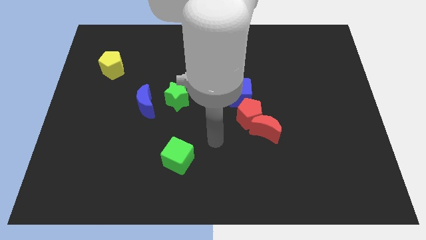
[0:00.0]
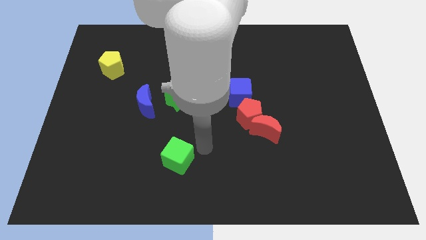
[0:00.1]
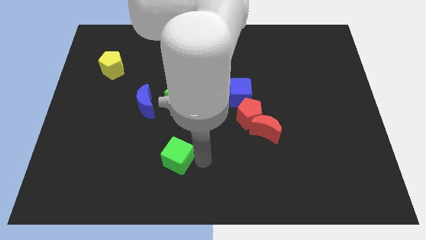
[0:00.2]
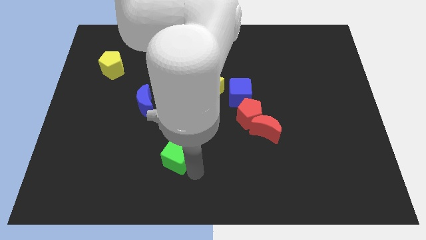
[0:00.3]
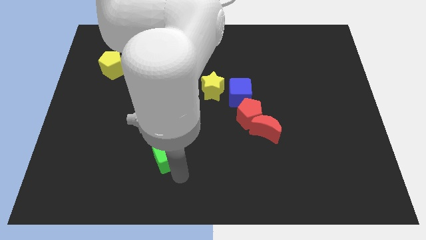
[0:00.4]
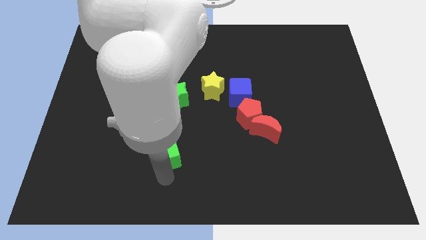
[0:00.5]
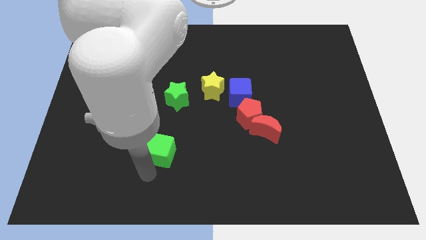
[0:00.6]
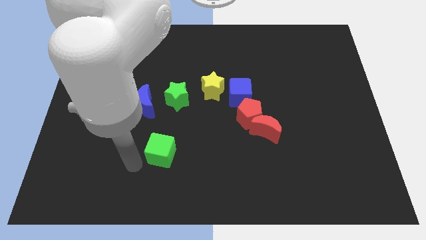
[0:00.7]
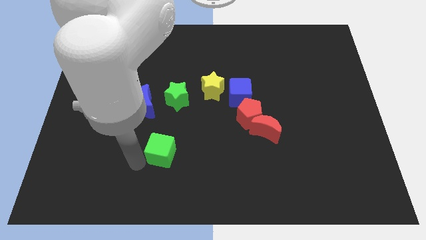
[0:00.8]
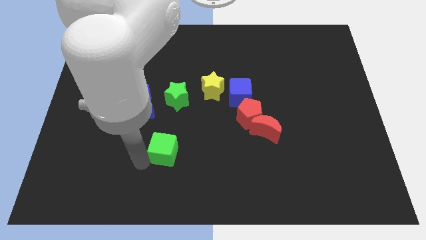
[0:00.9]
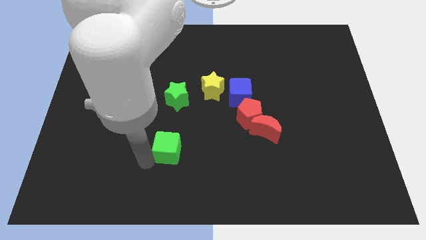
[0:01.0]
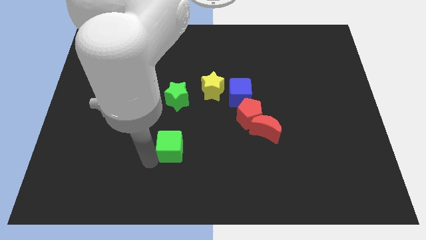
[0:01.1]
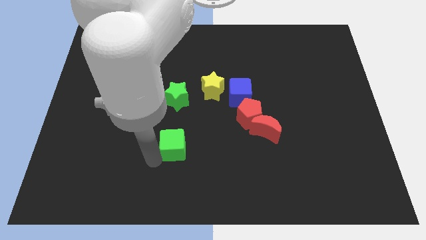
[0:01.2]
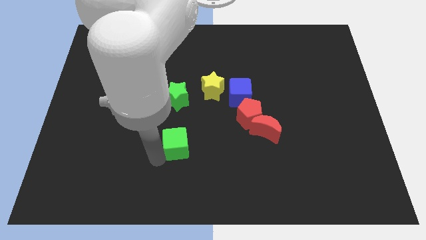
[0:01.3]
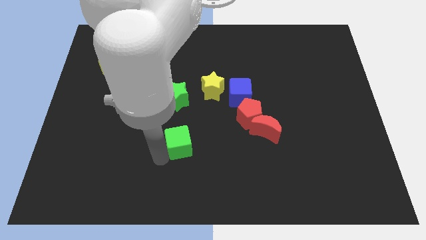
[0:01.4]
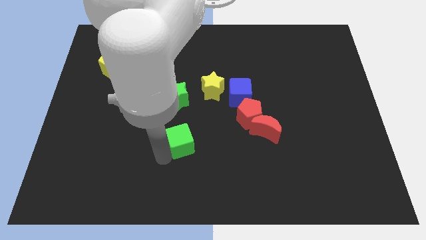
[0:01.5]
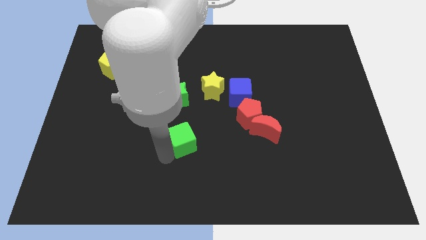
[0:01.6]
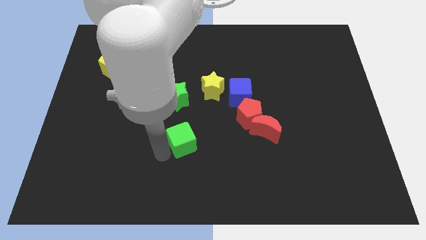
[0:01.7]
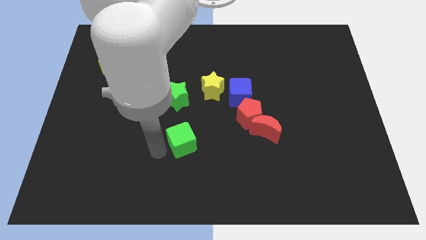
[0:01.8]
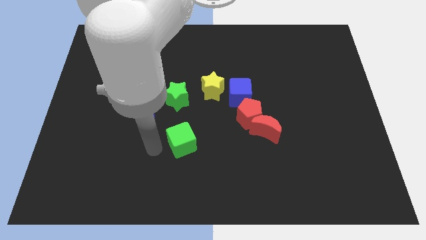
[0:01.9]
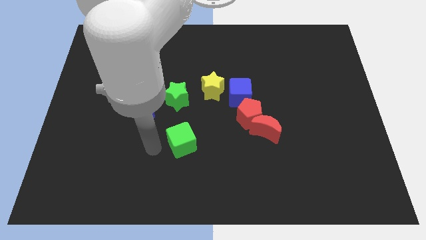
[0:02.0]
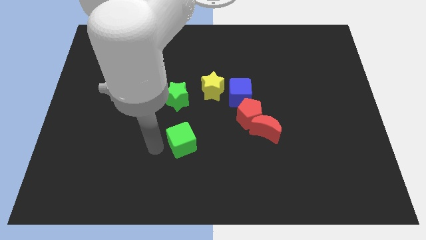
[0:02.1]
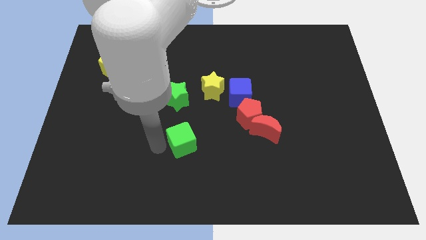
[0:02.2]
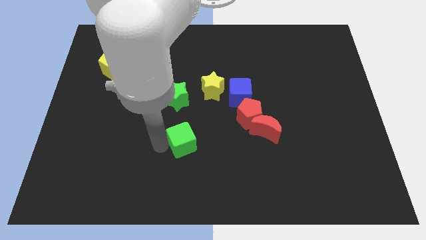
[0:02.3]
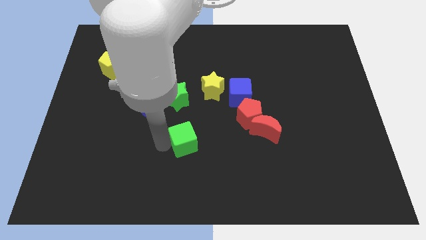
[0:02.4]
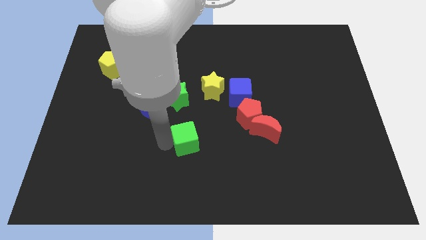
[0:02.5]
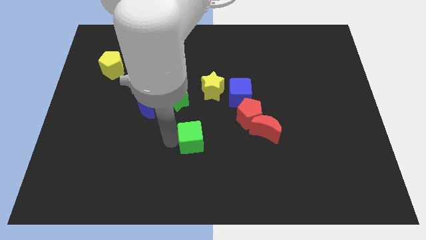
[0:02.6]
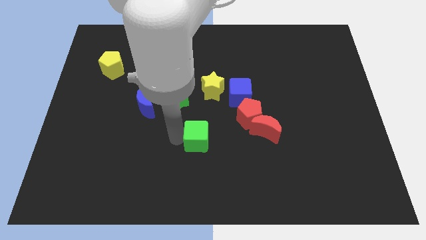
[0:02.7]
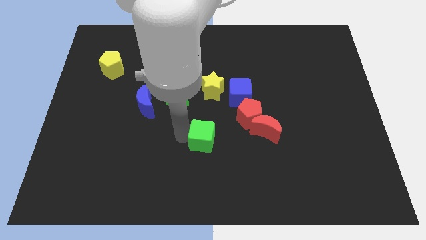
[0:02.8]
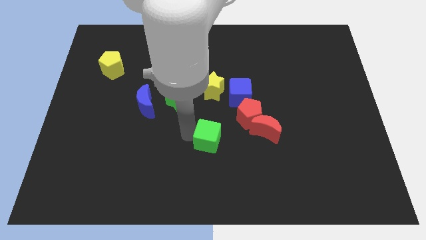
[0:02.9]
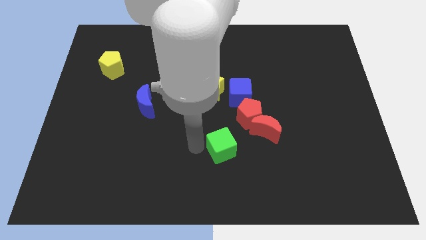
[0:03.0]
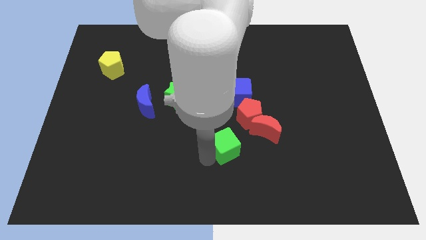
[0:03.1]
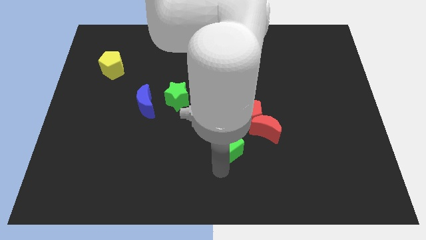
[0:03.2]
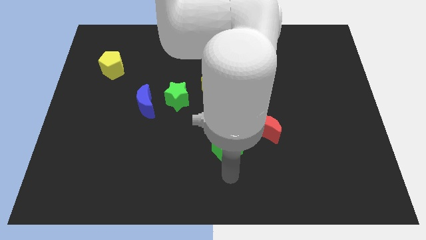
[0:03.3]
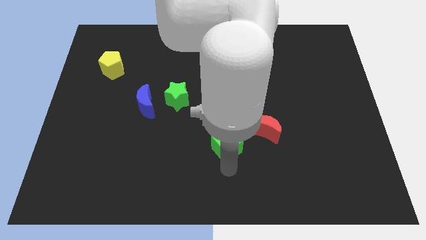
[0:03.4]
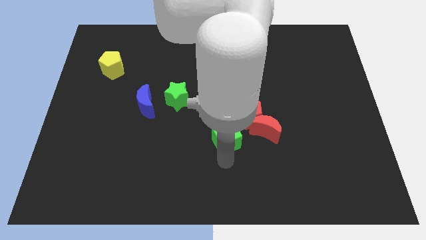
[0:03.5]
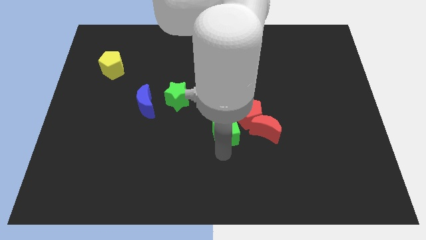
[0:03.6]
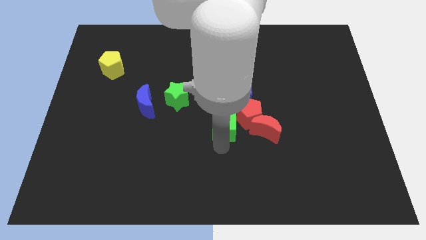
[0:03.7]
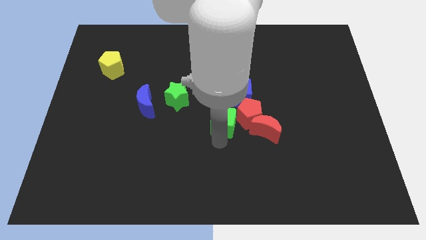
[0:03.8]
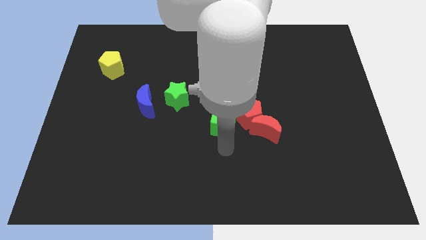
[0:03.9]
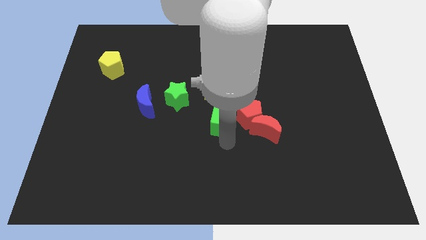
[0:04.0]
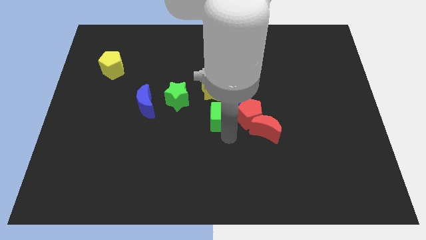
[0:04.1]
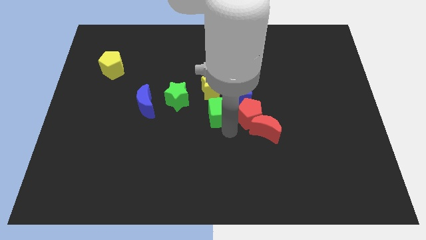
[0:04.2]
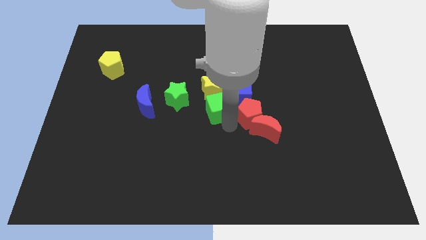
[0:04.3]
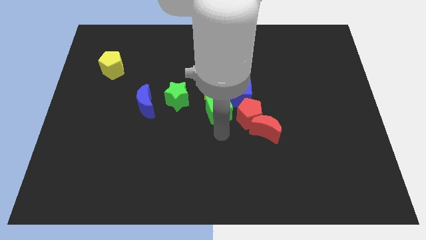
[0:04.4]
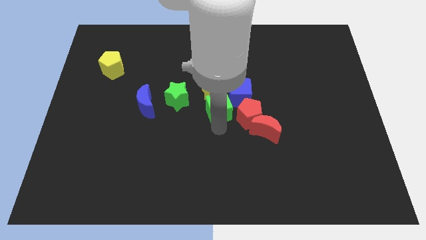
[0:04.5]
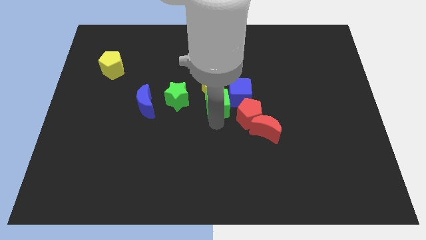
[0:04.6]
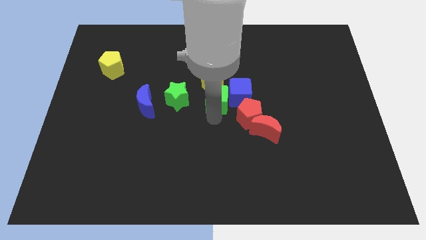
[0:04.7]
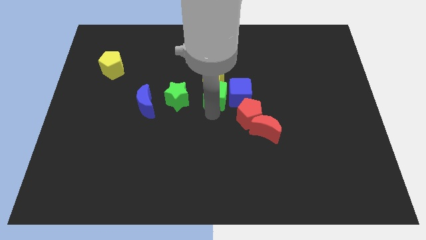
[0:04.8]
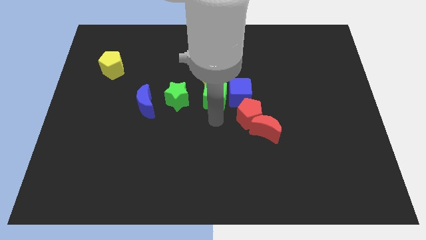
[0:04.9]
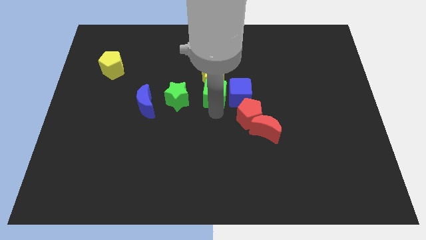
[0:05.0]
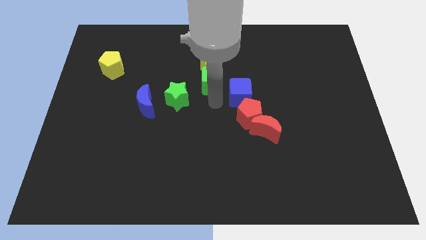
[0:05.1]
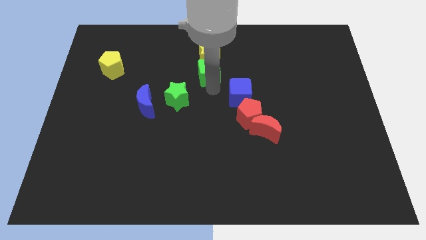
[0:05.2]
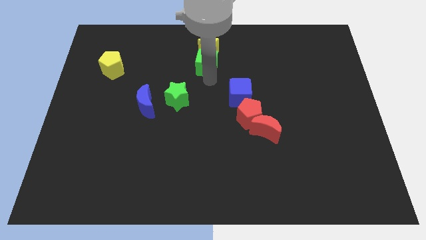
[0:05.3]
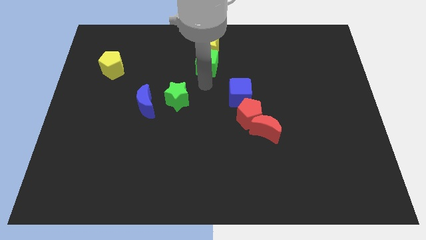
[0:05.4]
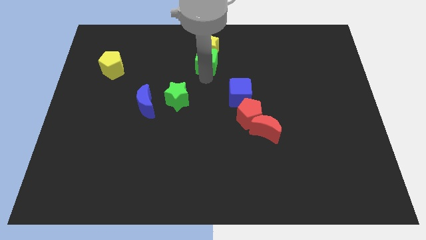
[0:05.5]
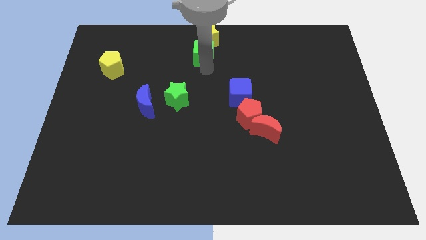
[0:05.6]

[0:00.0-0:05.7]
slide the green cube to the towards your base

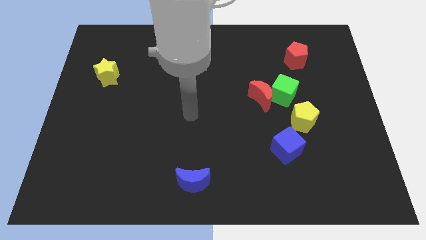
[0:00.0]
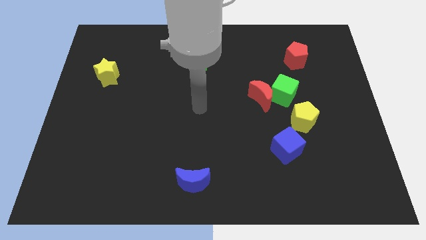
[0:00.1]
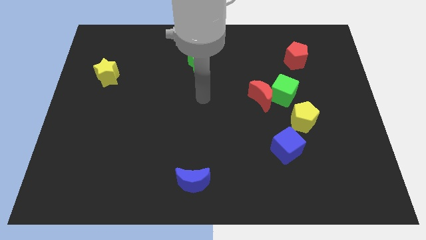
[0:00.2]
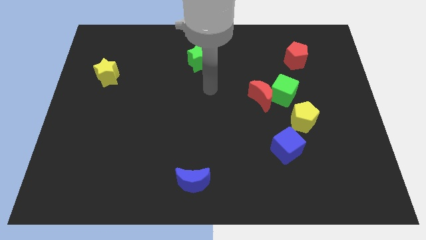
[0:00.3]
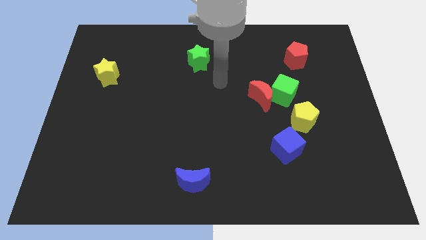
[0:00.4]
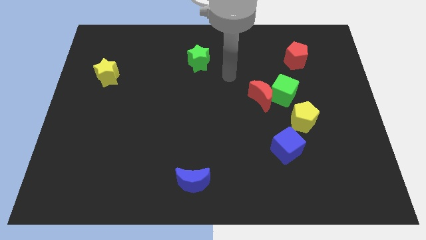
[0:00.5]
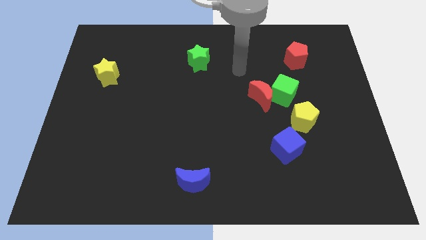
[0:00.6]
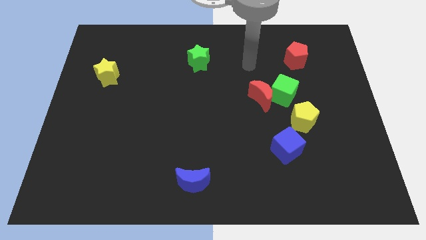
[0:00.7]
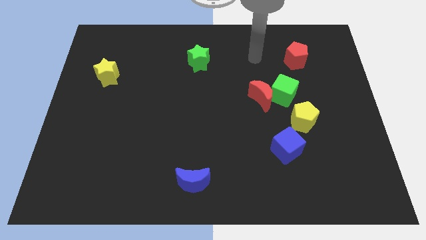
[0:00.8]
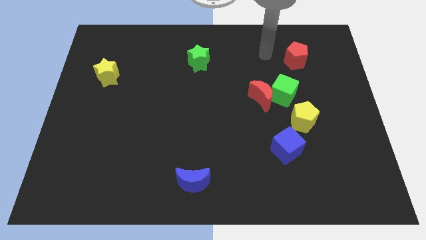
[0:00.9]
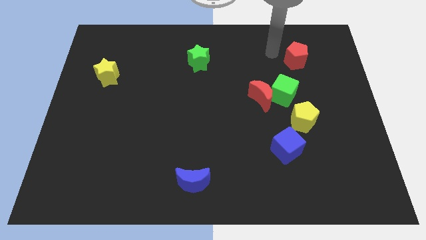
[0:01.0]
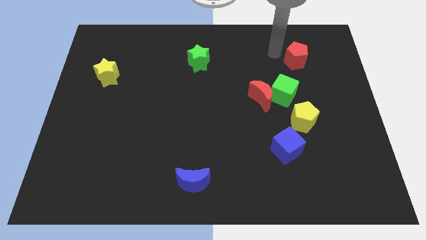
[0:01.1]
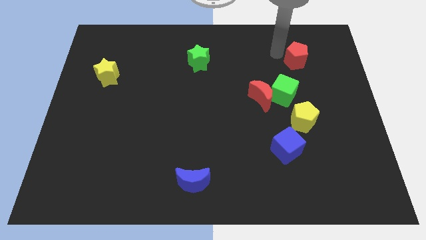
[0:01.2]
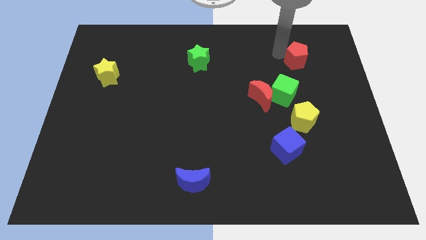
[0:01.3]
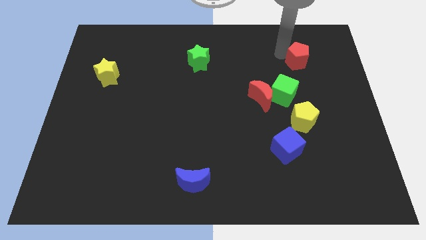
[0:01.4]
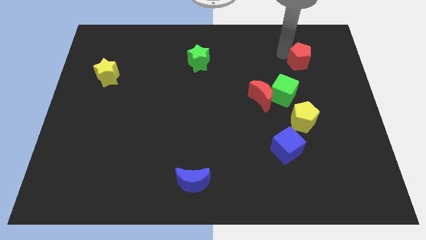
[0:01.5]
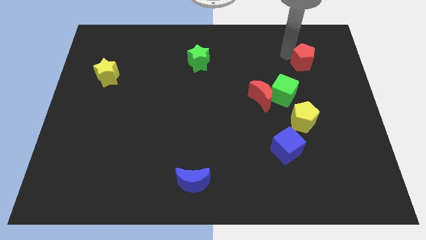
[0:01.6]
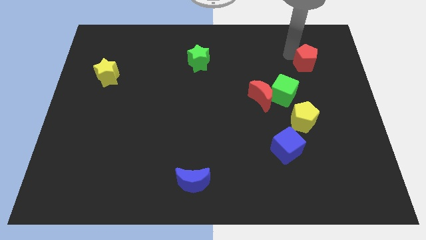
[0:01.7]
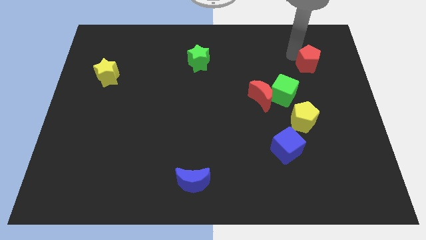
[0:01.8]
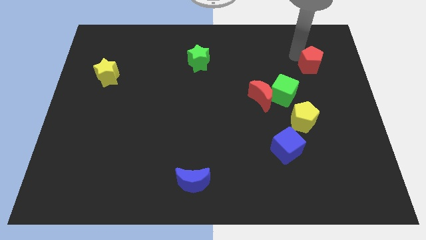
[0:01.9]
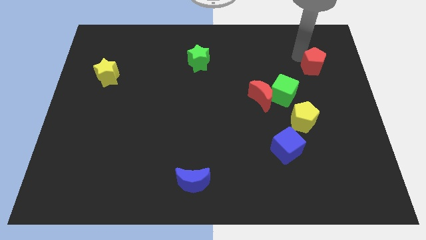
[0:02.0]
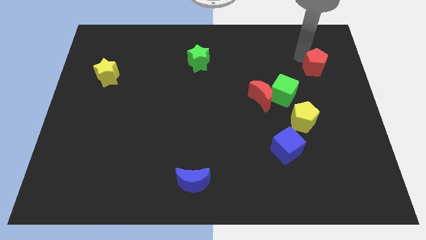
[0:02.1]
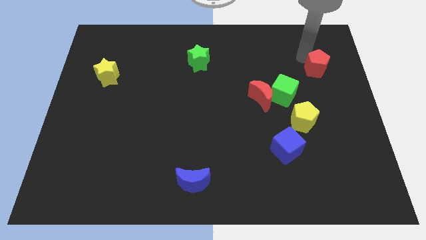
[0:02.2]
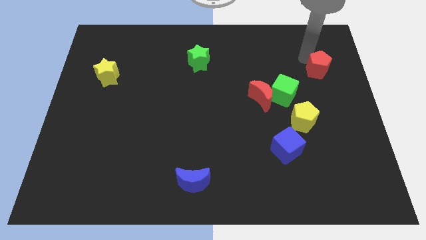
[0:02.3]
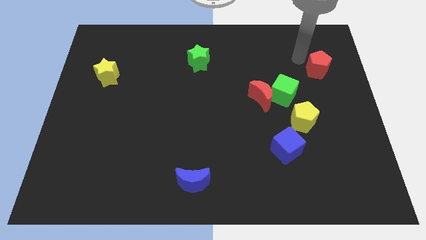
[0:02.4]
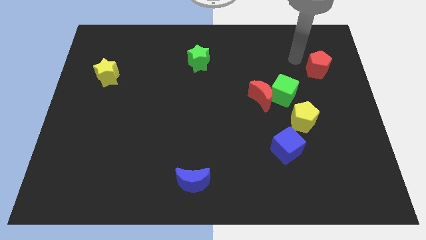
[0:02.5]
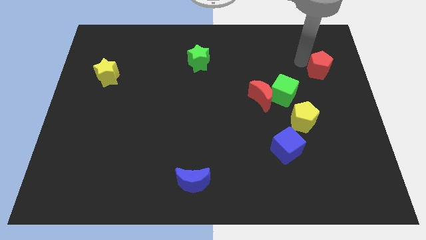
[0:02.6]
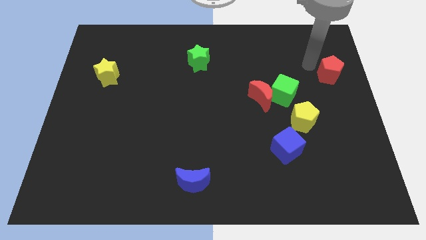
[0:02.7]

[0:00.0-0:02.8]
move the red pentagon to the center right
